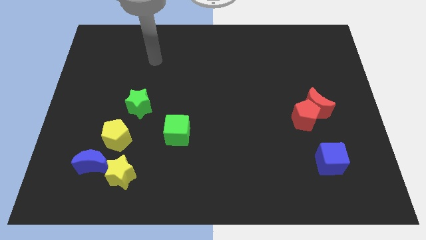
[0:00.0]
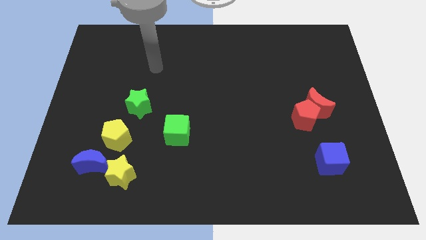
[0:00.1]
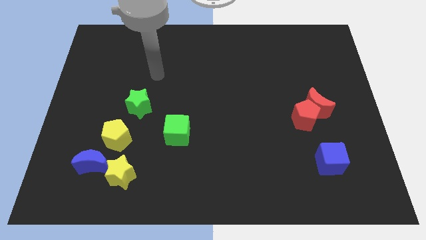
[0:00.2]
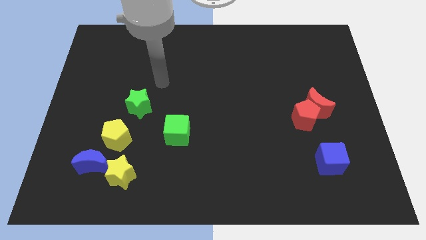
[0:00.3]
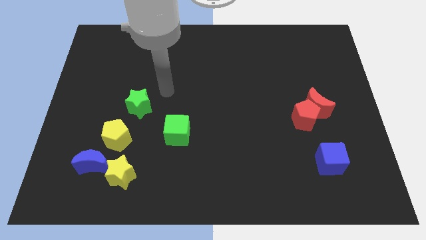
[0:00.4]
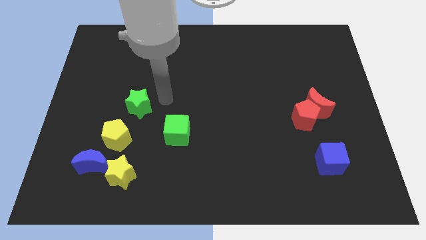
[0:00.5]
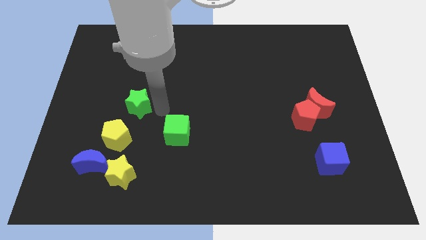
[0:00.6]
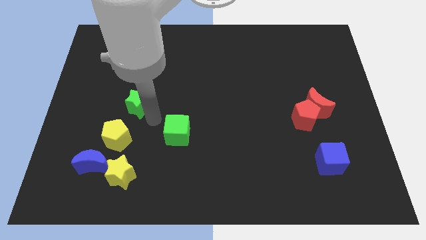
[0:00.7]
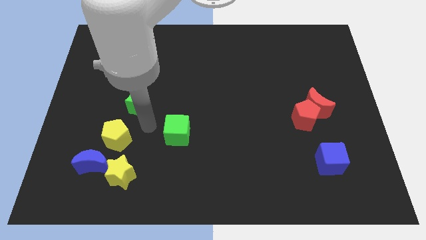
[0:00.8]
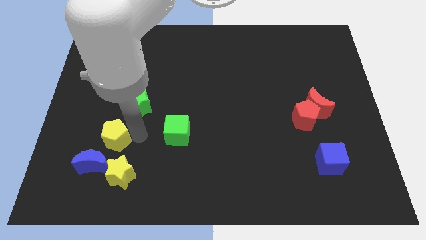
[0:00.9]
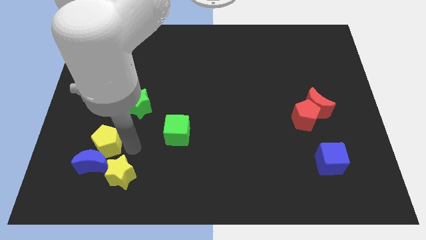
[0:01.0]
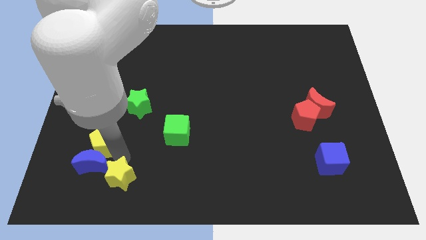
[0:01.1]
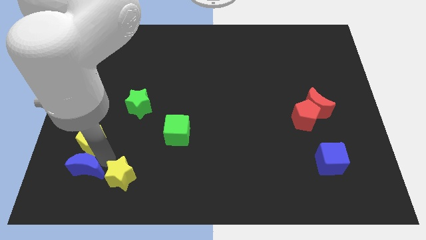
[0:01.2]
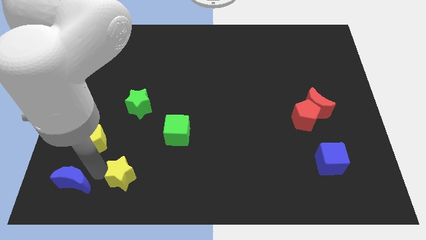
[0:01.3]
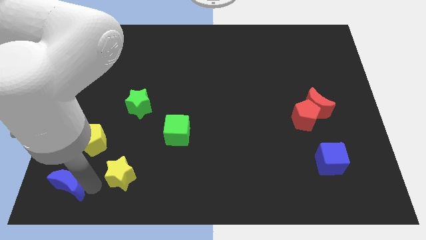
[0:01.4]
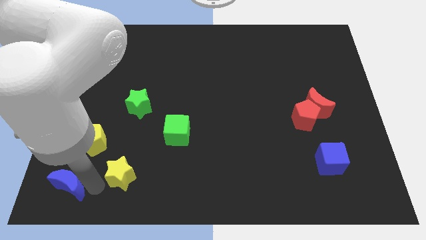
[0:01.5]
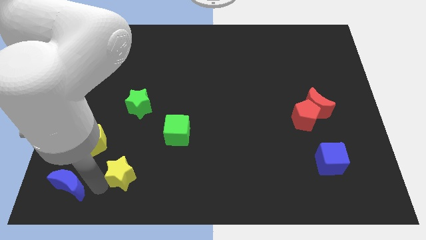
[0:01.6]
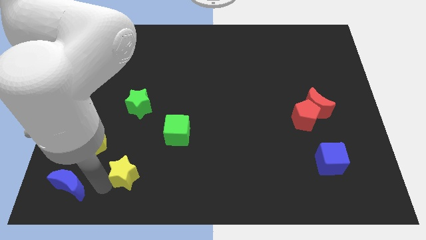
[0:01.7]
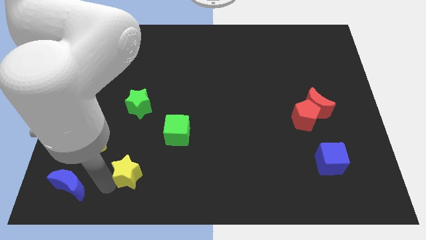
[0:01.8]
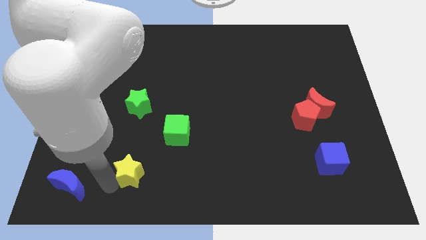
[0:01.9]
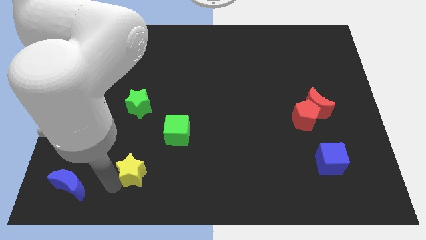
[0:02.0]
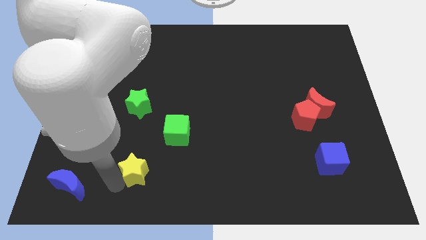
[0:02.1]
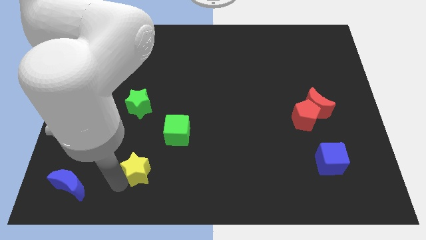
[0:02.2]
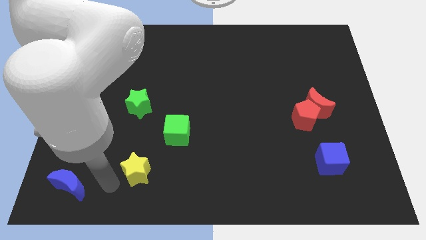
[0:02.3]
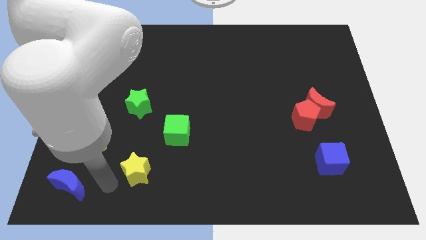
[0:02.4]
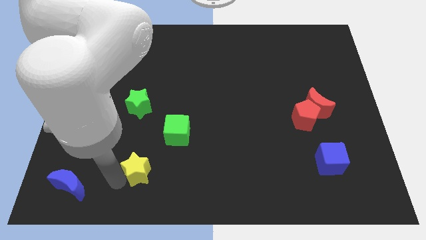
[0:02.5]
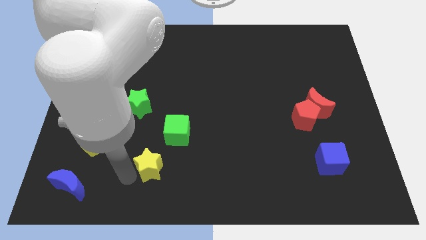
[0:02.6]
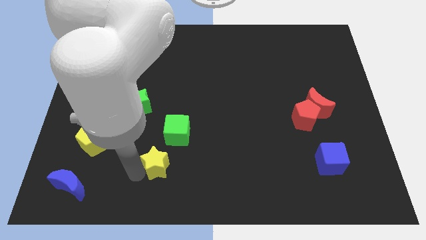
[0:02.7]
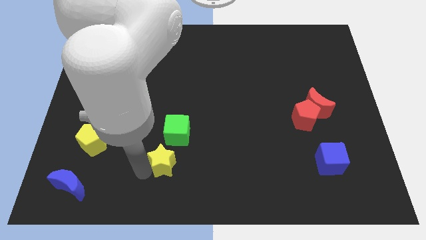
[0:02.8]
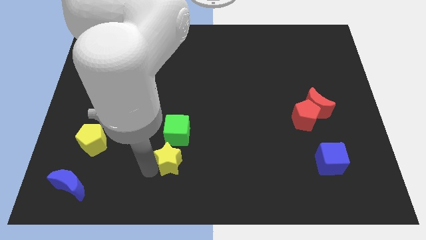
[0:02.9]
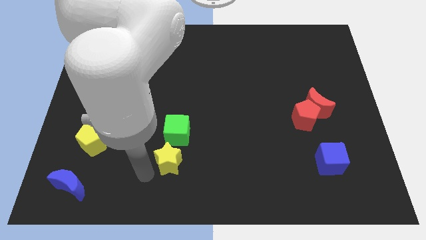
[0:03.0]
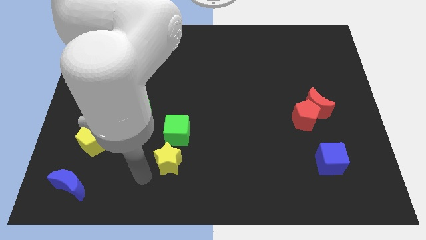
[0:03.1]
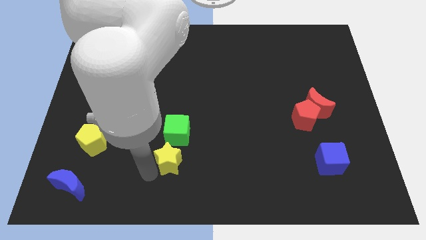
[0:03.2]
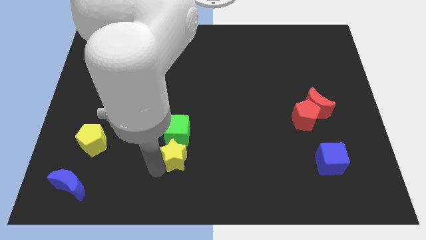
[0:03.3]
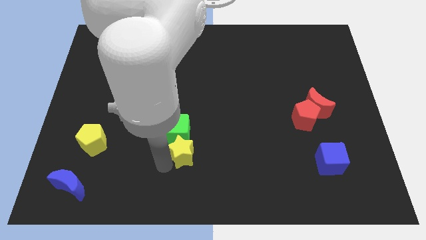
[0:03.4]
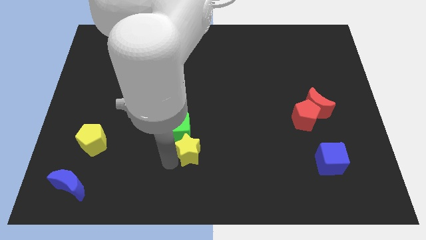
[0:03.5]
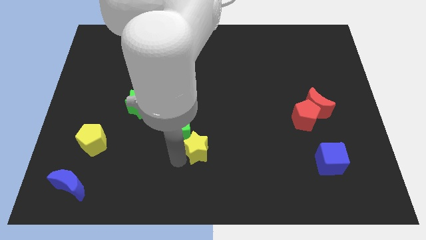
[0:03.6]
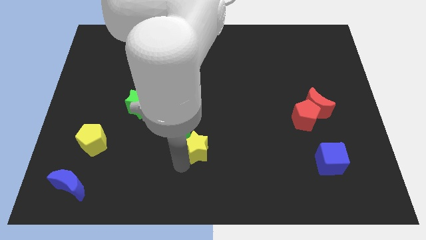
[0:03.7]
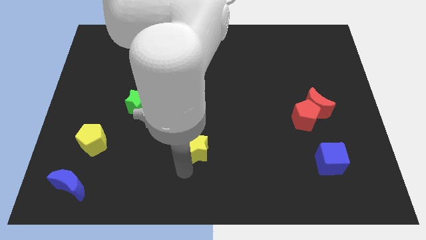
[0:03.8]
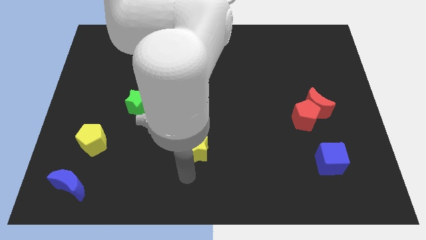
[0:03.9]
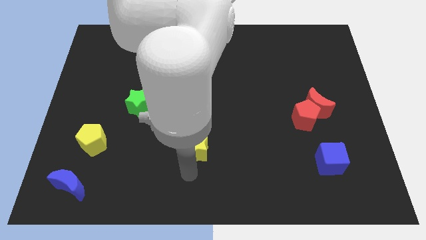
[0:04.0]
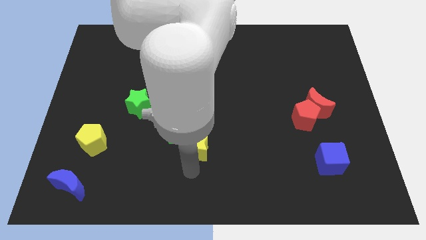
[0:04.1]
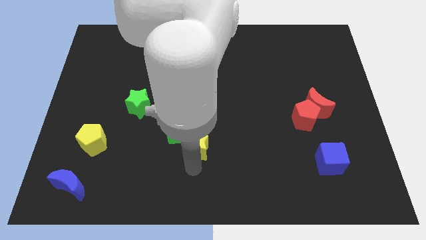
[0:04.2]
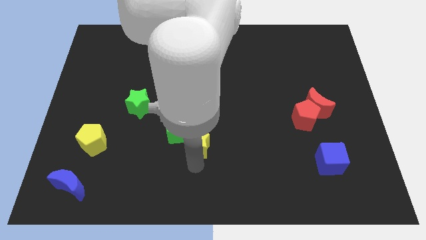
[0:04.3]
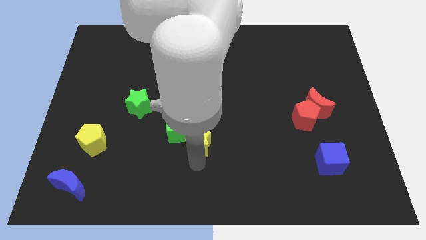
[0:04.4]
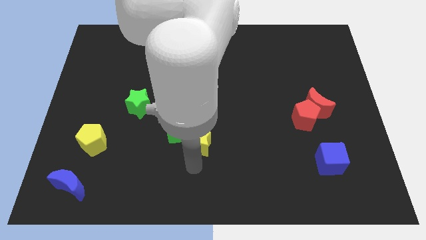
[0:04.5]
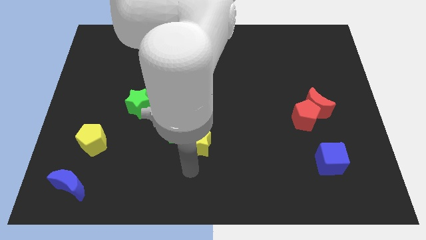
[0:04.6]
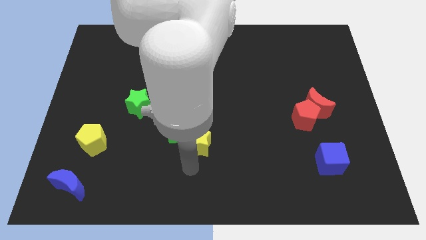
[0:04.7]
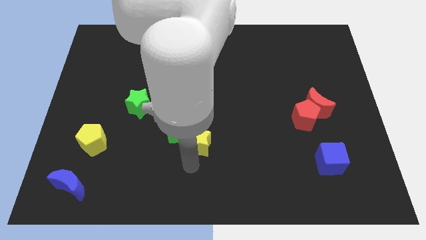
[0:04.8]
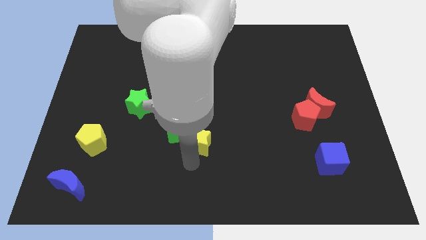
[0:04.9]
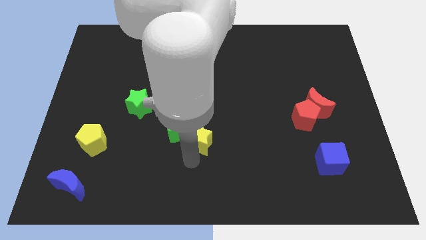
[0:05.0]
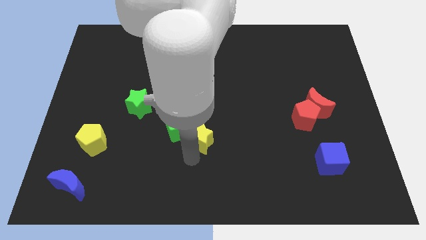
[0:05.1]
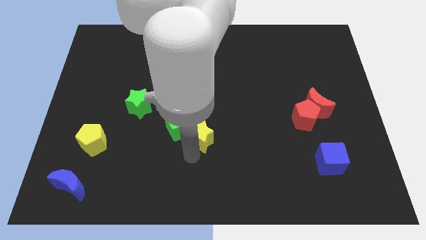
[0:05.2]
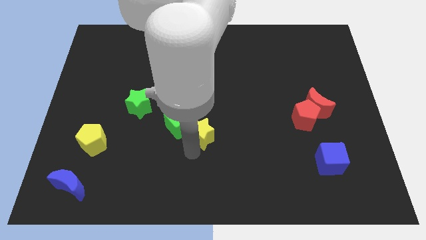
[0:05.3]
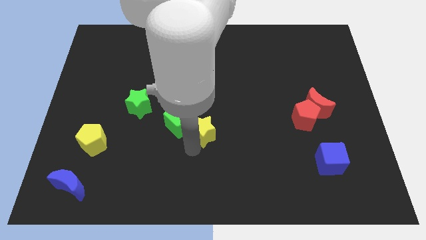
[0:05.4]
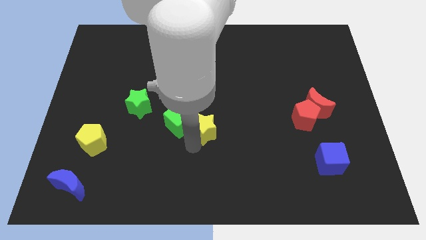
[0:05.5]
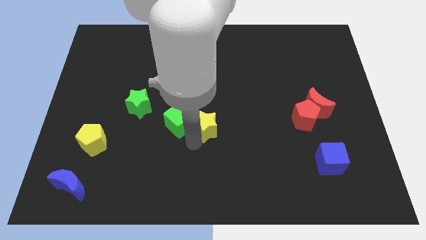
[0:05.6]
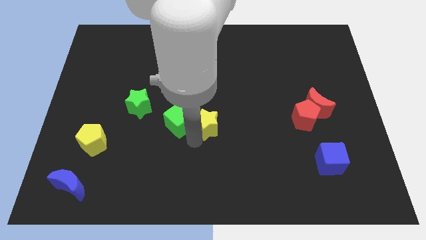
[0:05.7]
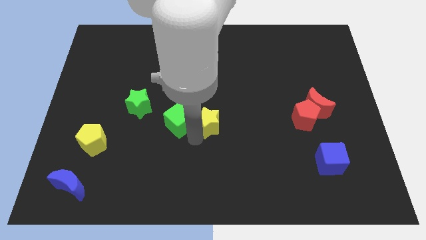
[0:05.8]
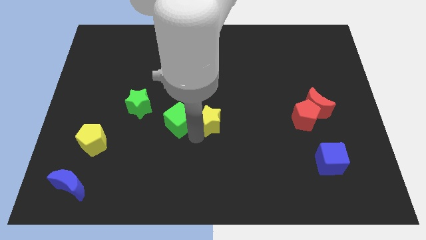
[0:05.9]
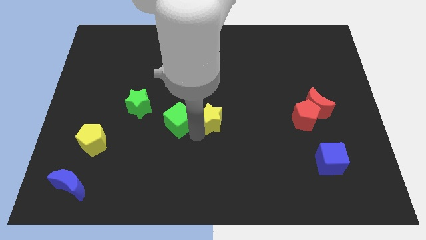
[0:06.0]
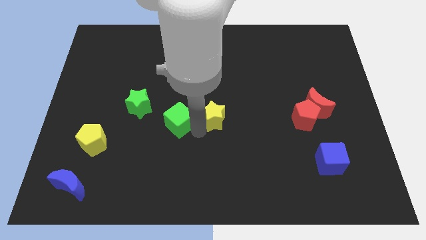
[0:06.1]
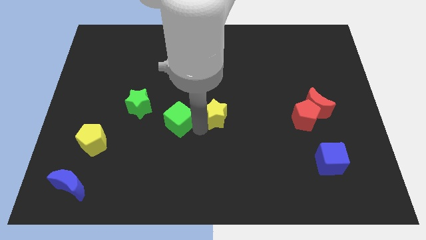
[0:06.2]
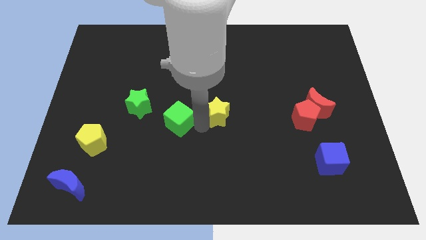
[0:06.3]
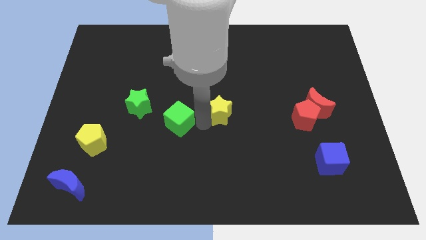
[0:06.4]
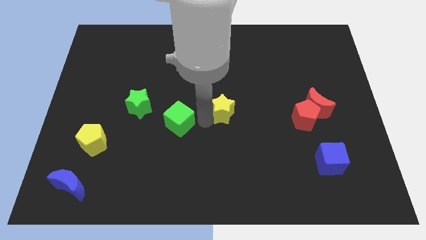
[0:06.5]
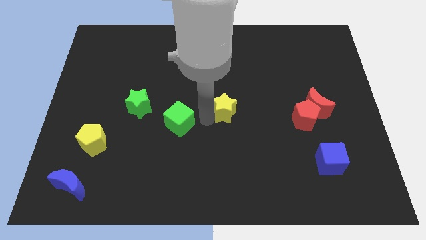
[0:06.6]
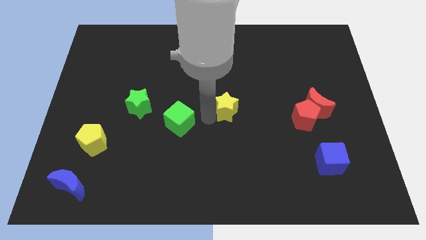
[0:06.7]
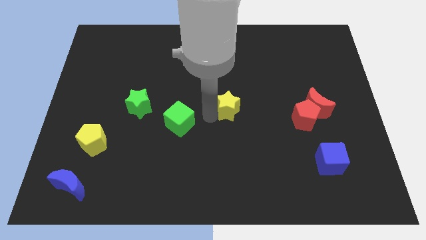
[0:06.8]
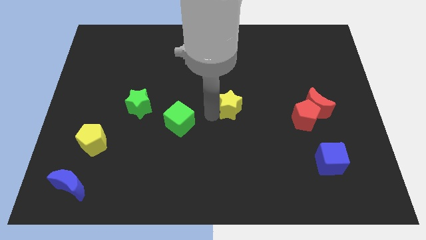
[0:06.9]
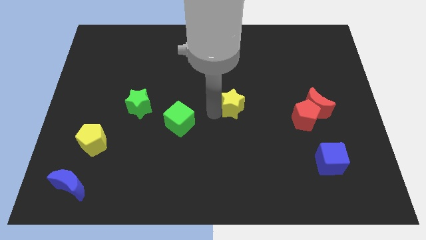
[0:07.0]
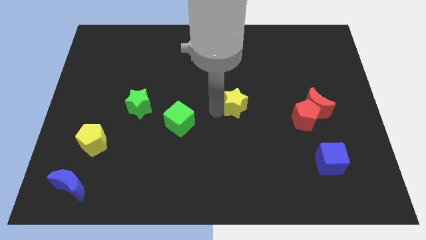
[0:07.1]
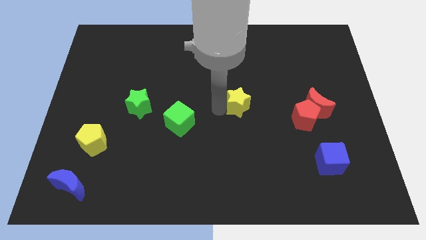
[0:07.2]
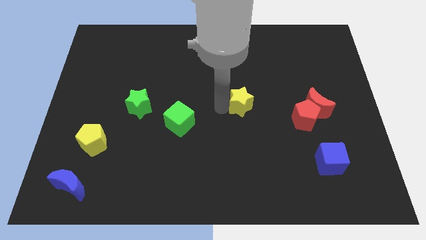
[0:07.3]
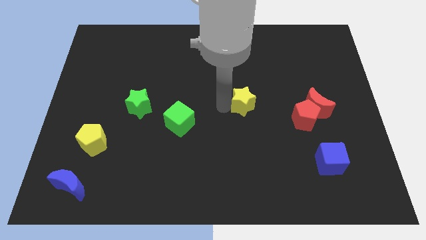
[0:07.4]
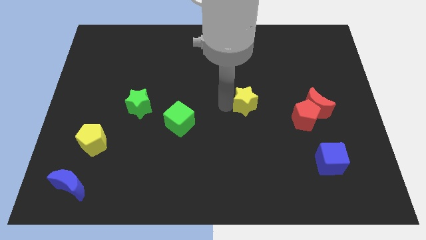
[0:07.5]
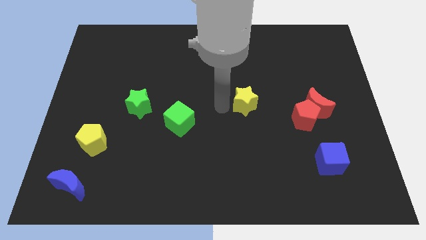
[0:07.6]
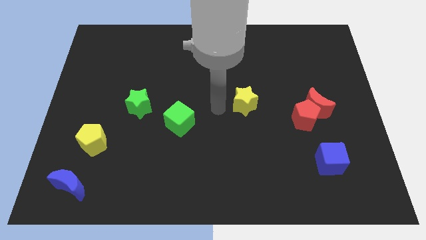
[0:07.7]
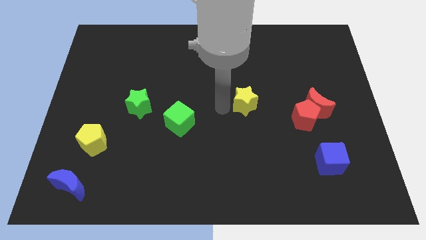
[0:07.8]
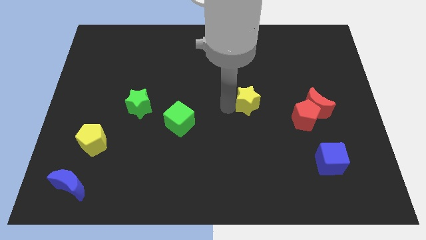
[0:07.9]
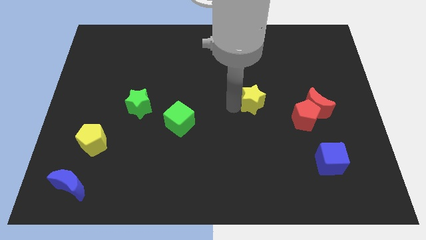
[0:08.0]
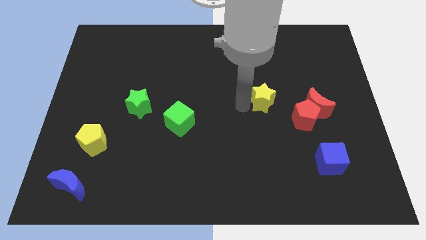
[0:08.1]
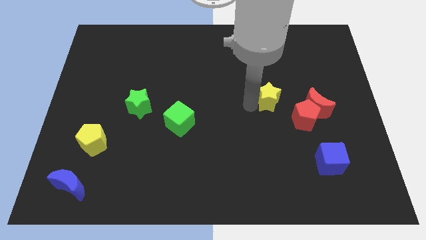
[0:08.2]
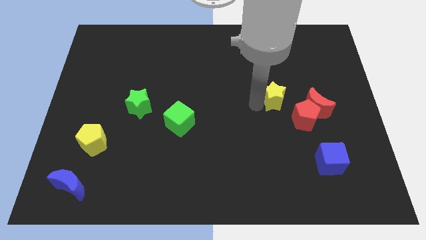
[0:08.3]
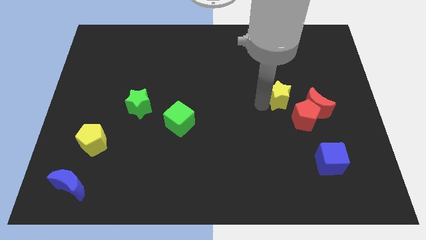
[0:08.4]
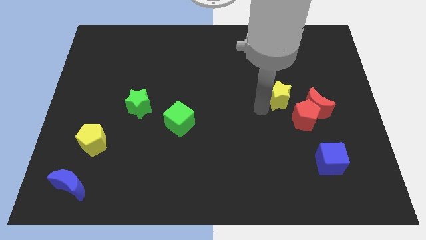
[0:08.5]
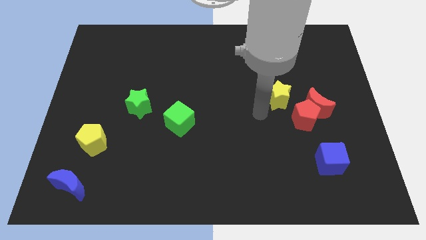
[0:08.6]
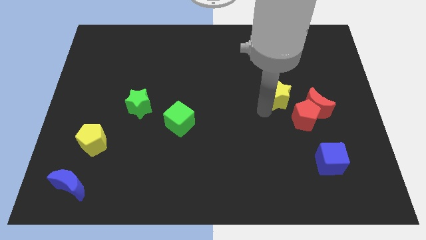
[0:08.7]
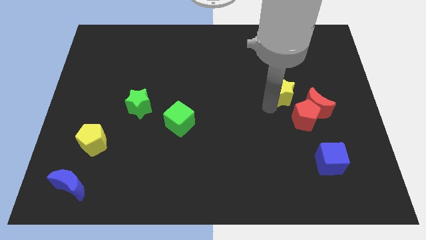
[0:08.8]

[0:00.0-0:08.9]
slide the yellow star above the red pentagon
